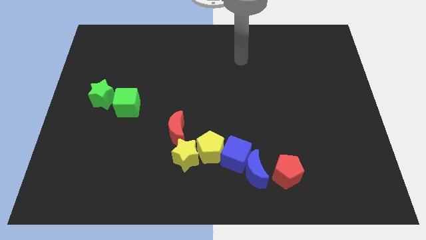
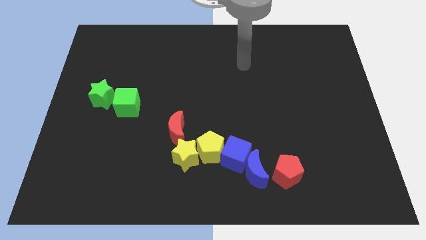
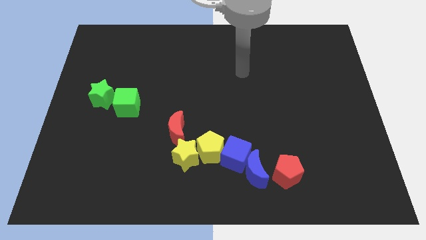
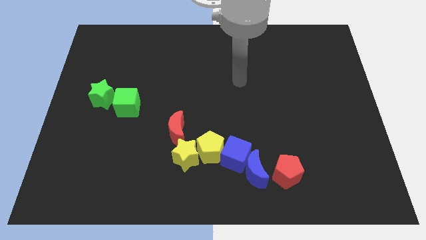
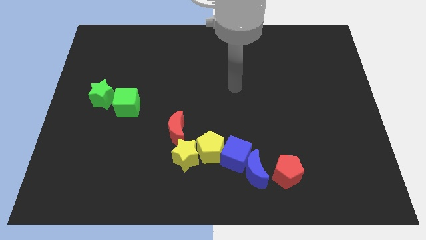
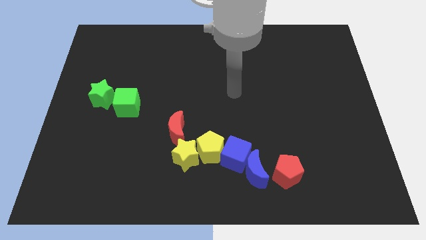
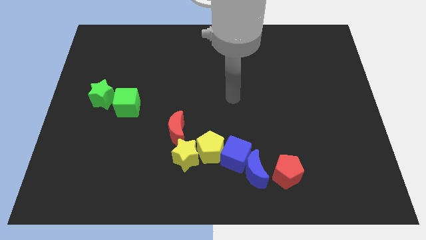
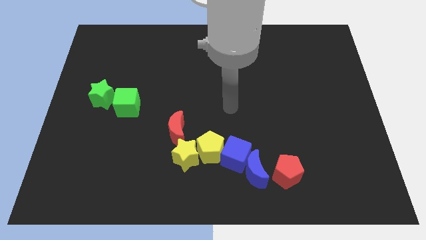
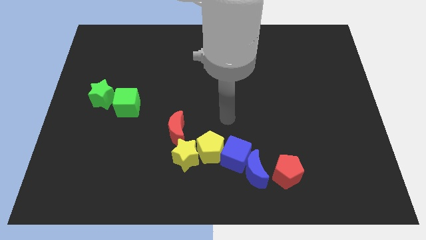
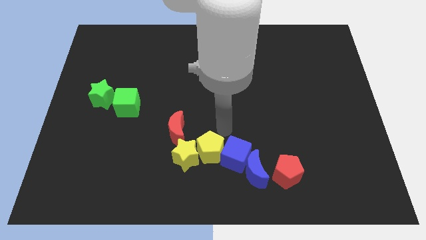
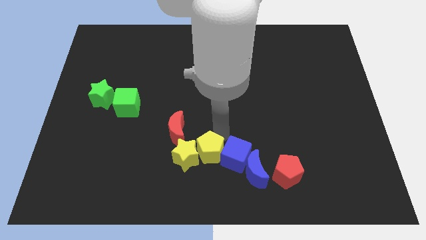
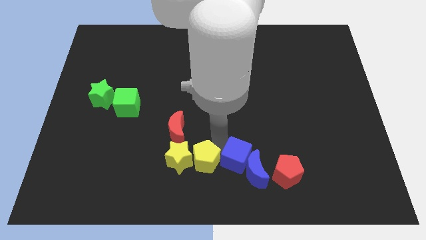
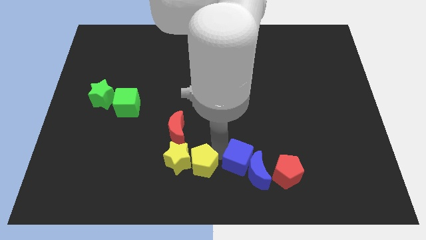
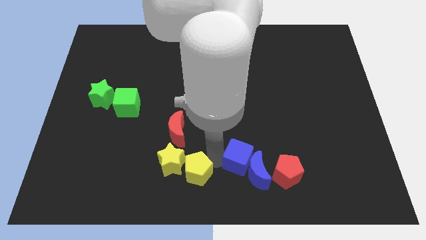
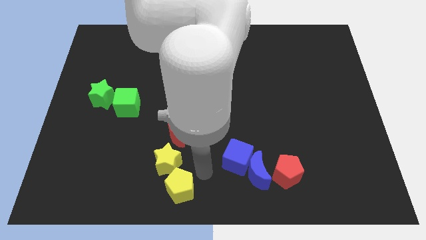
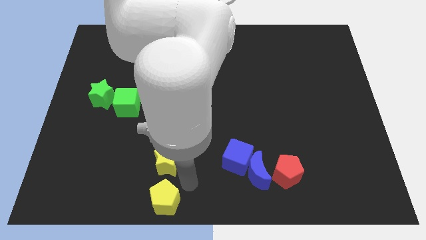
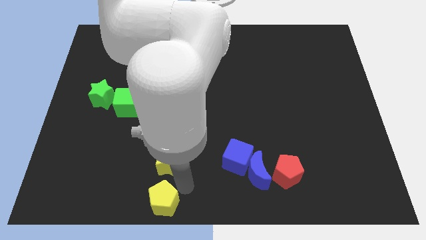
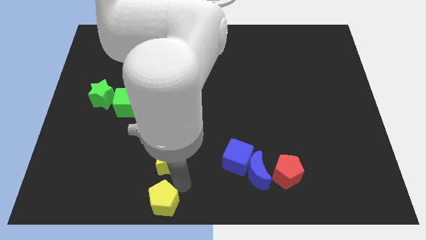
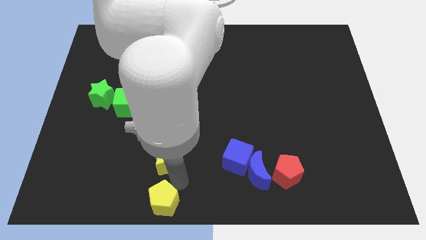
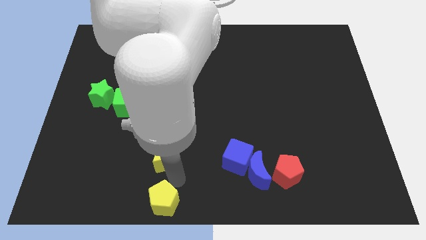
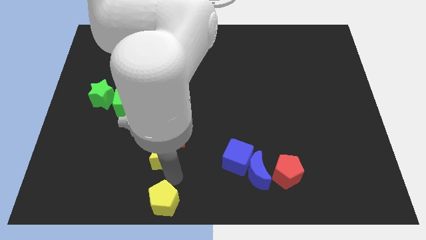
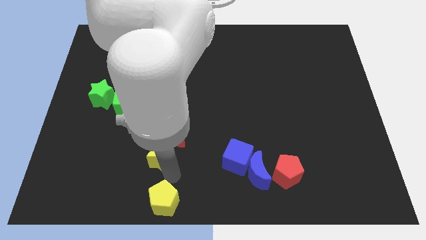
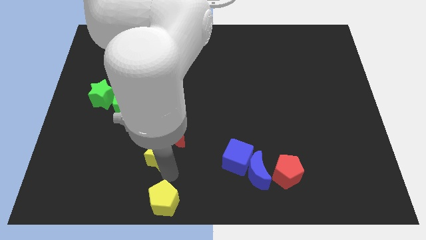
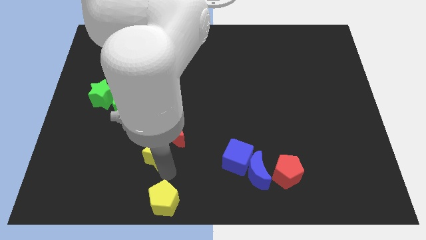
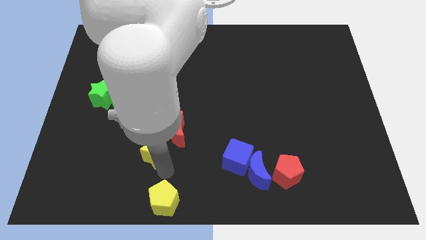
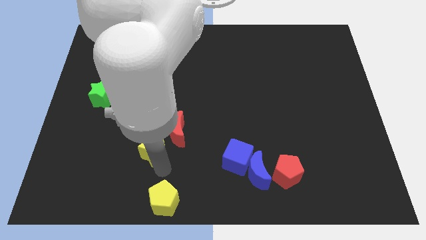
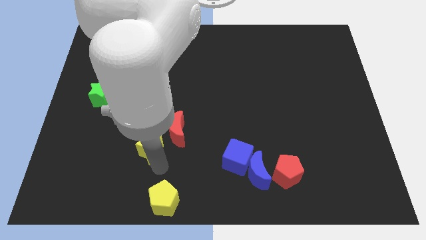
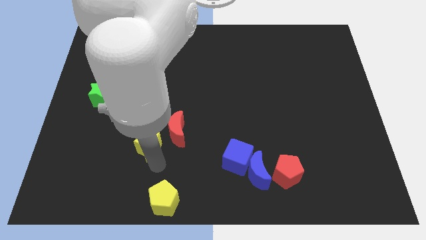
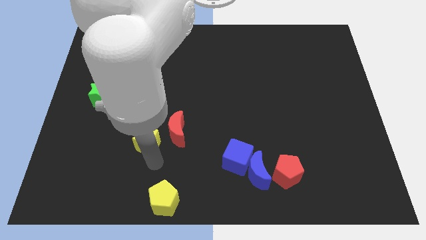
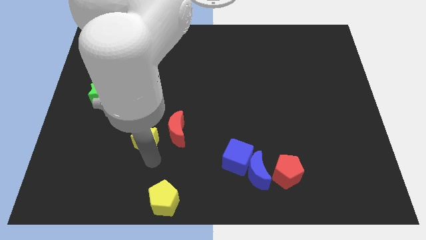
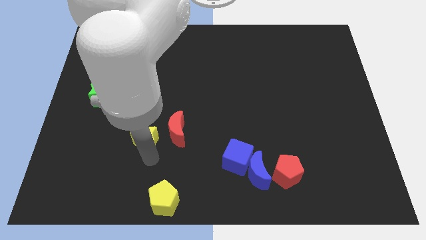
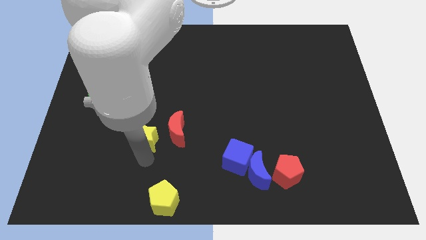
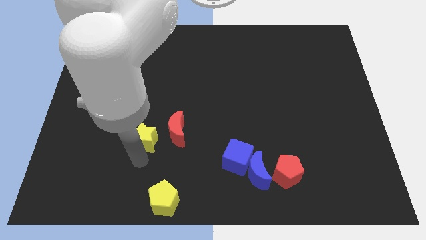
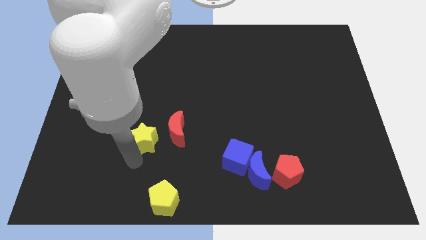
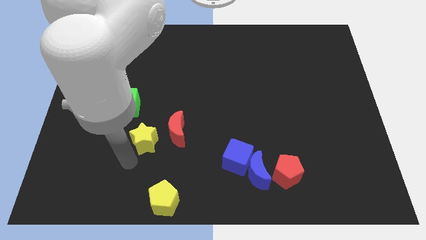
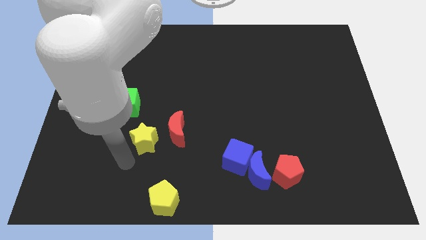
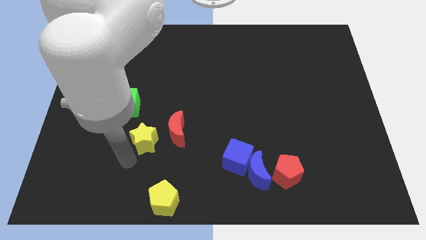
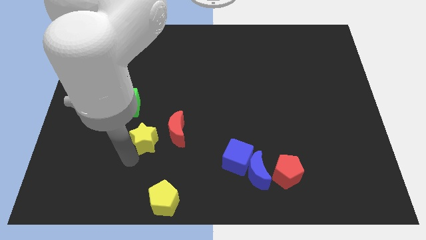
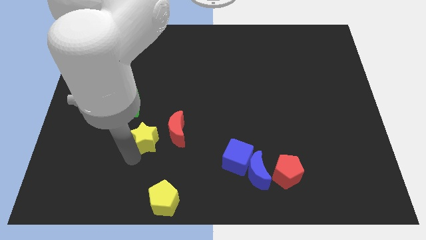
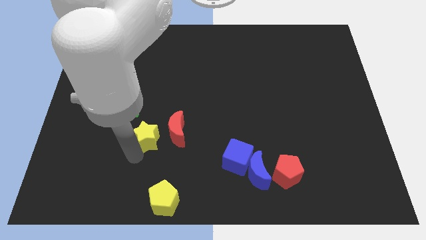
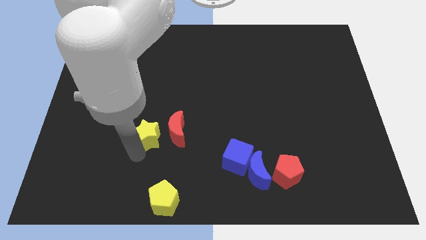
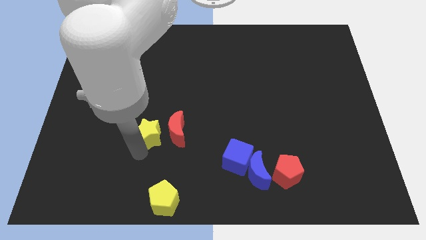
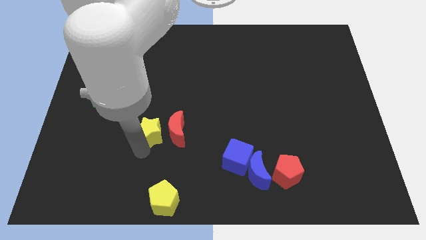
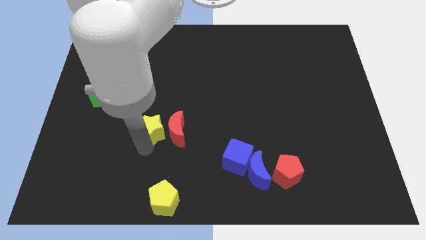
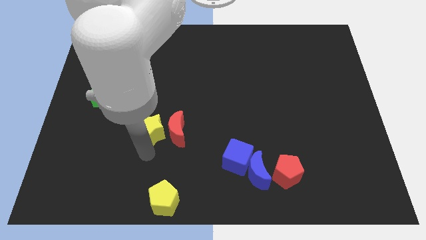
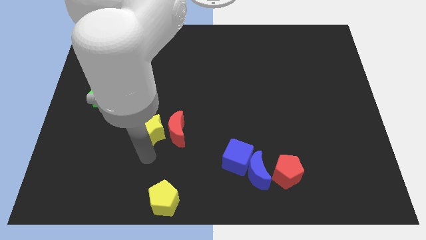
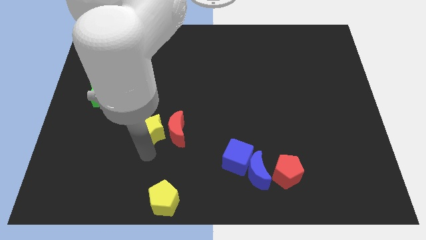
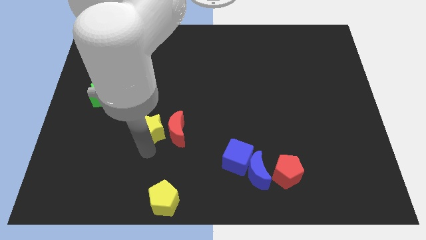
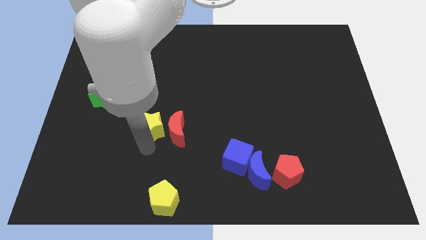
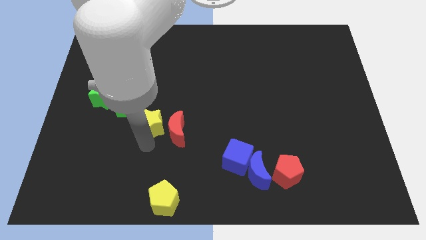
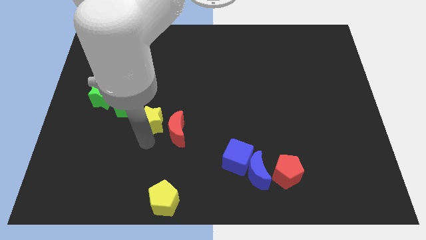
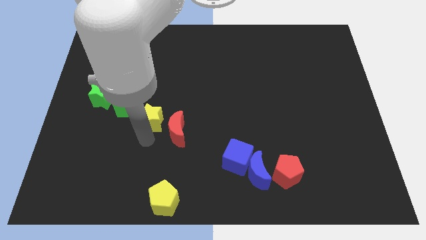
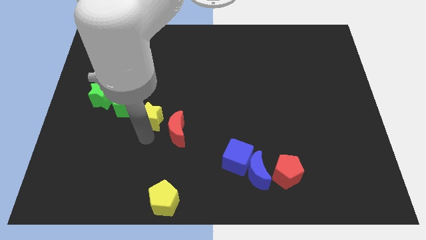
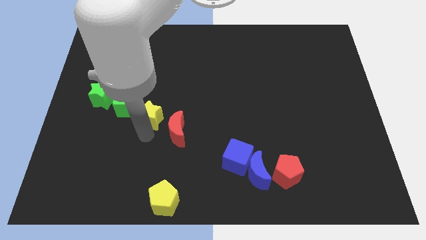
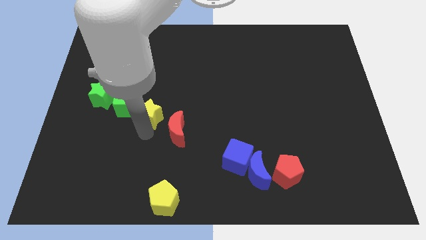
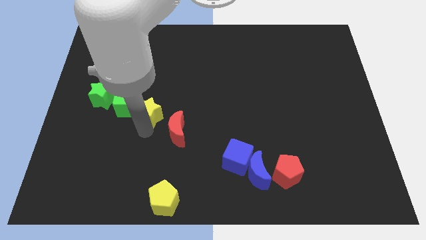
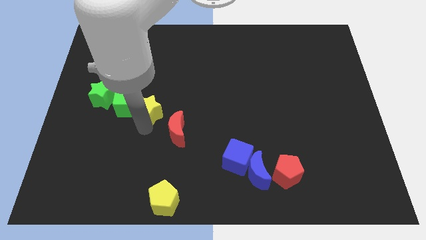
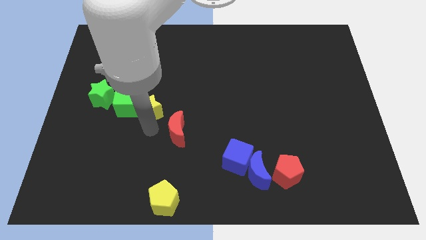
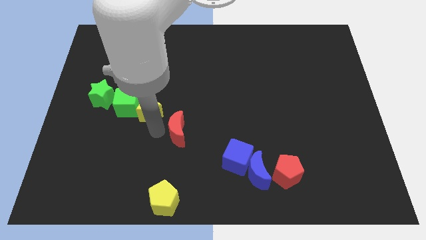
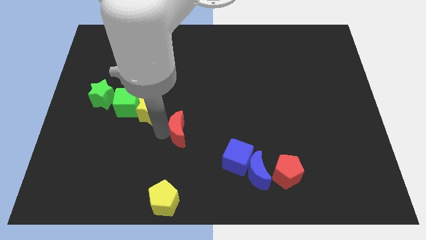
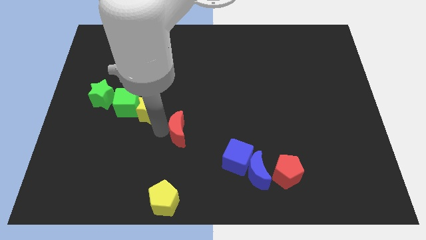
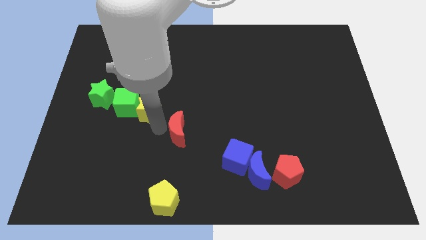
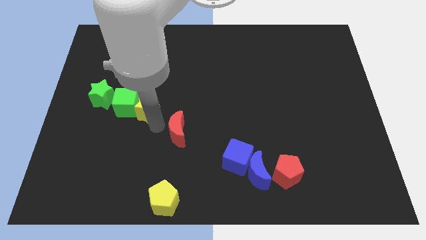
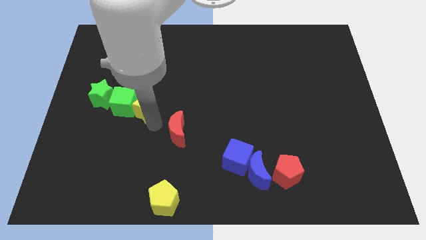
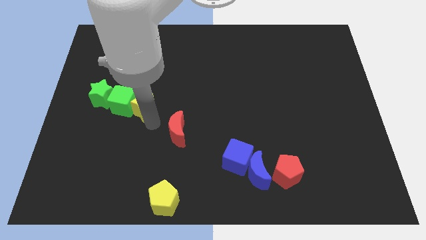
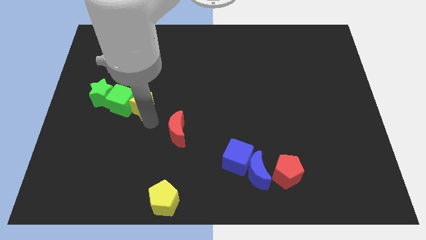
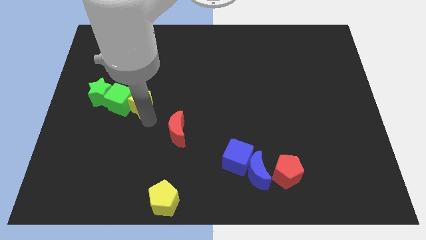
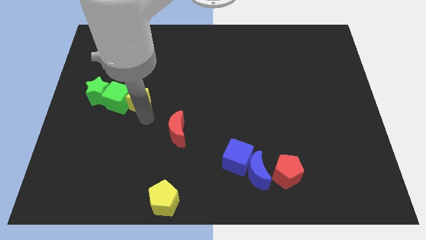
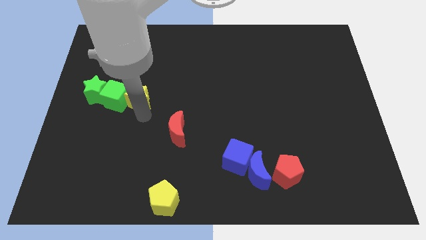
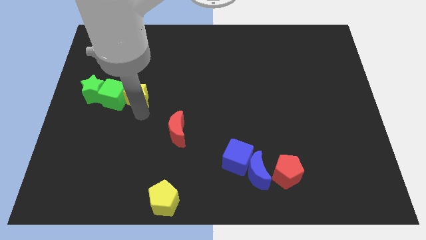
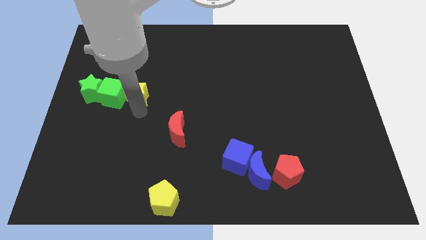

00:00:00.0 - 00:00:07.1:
push the yellow star diagonally up and left

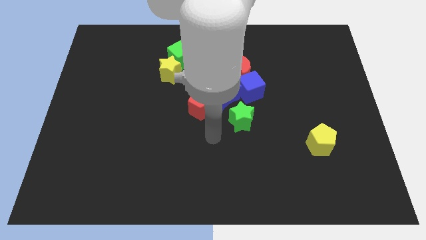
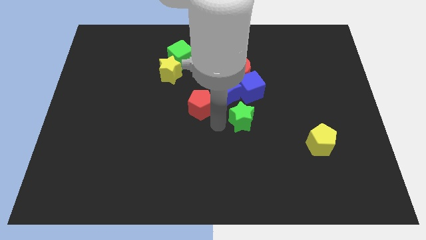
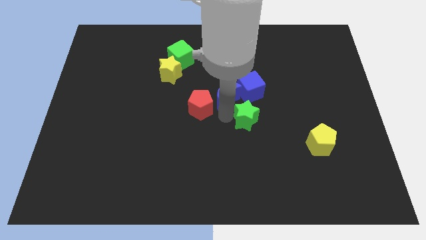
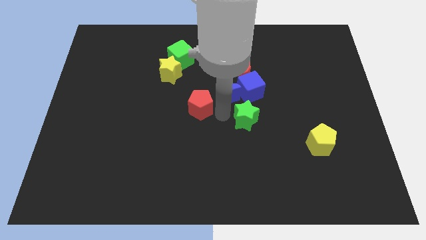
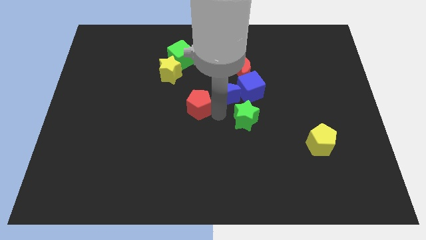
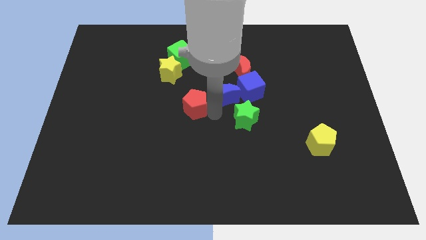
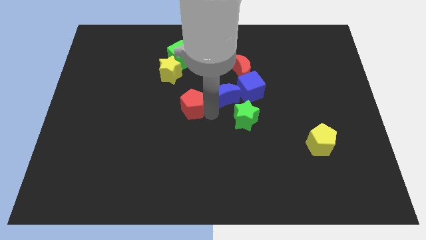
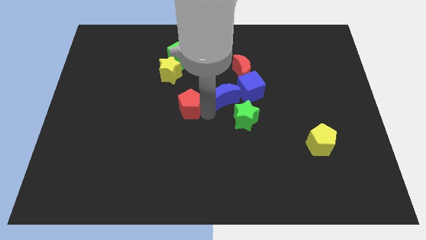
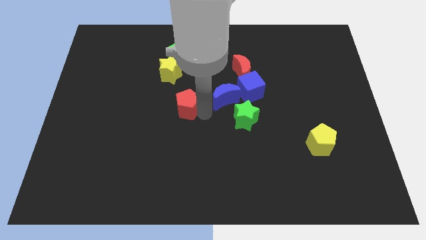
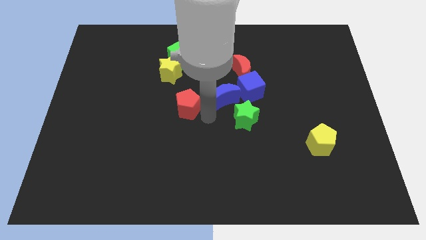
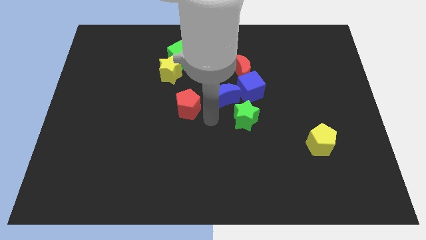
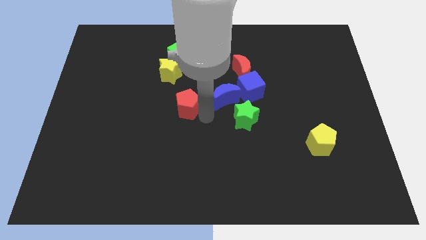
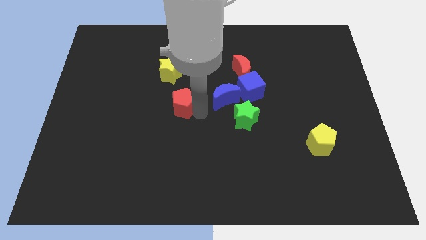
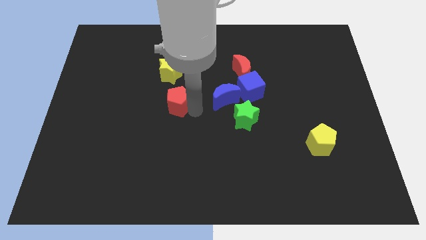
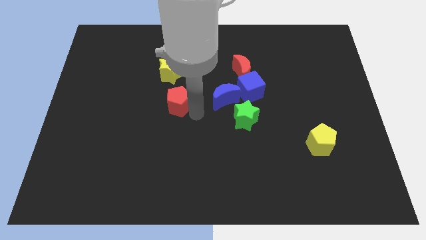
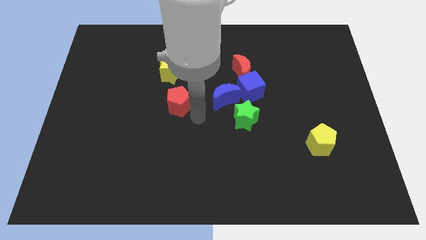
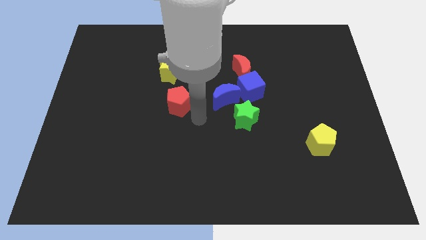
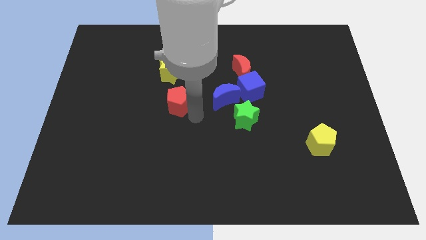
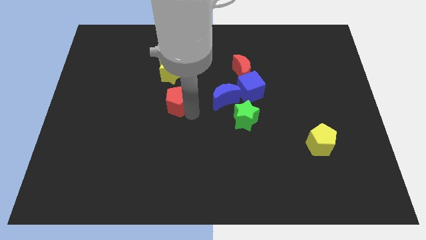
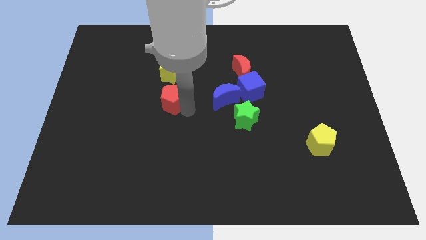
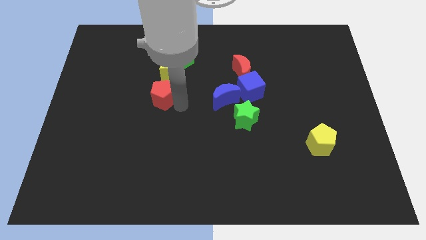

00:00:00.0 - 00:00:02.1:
push the red pentagon upwards and to the left diagonally a little
